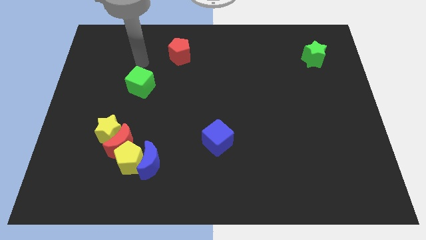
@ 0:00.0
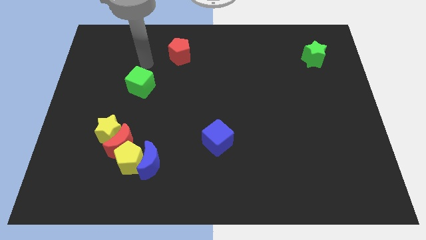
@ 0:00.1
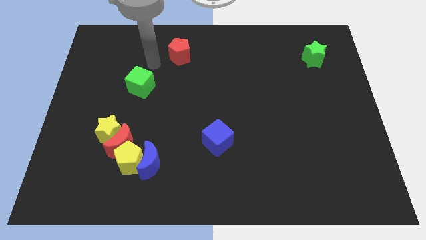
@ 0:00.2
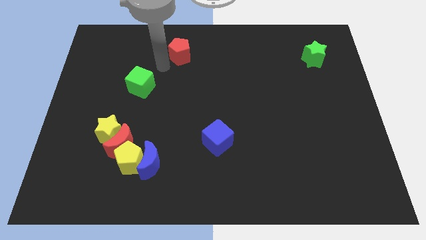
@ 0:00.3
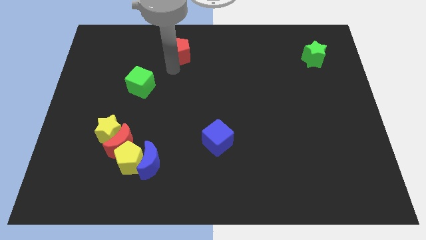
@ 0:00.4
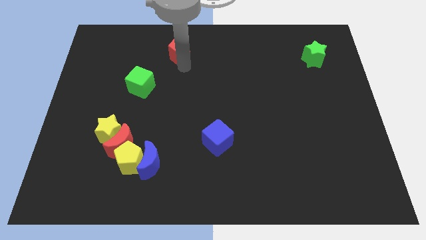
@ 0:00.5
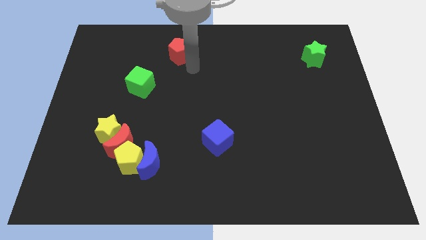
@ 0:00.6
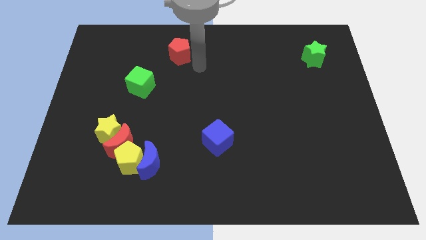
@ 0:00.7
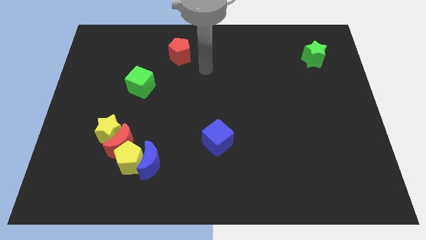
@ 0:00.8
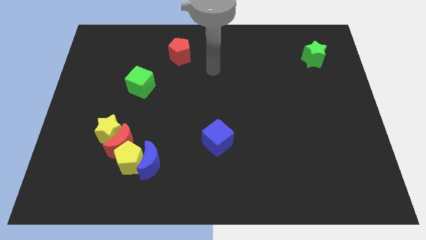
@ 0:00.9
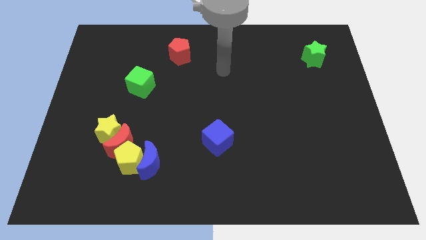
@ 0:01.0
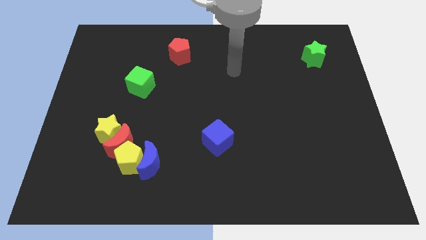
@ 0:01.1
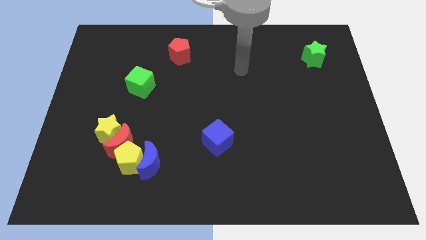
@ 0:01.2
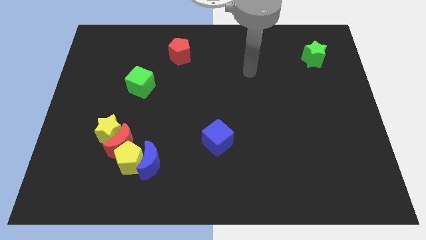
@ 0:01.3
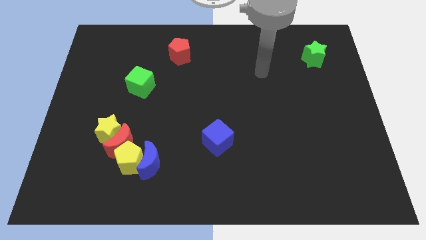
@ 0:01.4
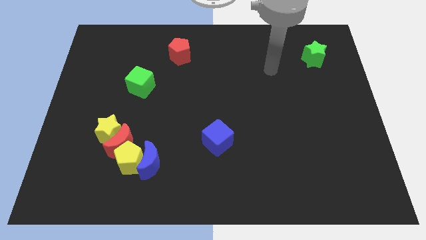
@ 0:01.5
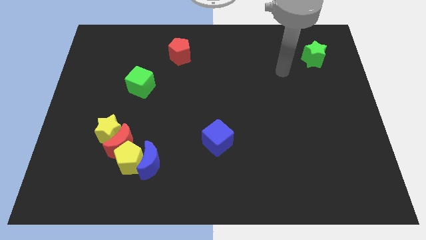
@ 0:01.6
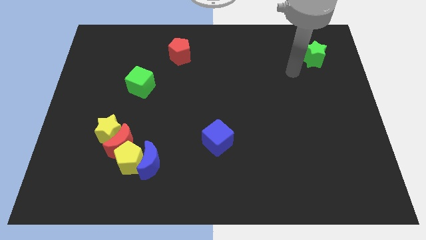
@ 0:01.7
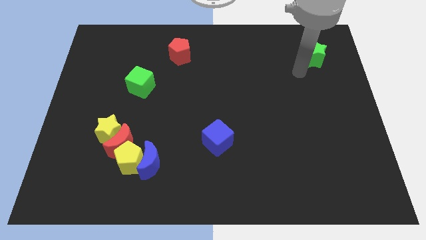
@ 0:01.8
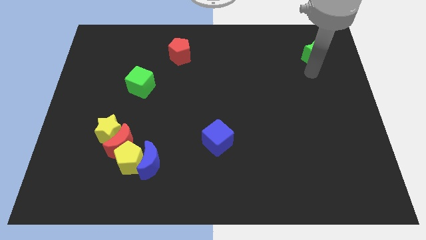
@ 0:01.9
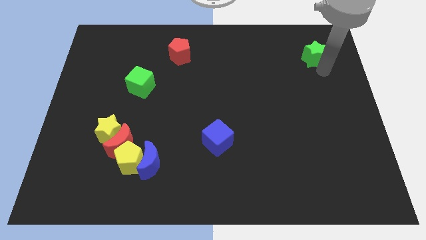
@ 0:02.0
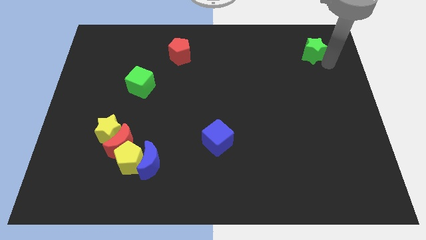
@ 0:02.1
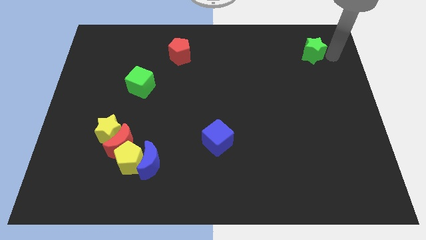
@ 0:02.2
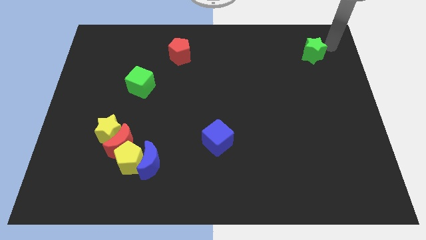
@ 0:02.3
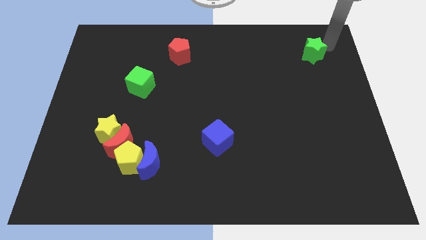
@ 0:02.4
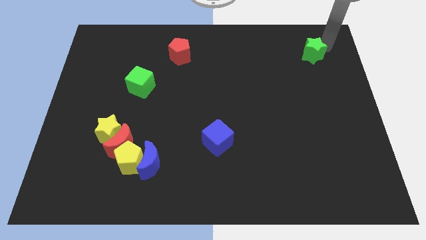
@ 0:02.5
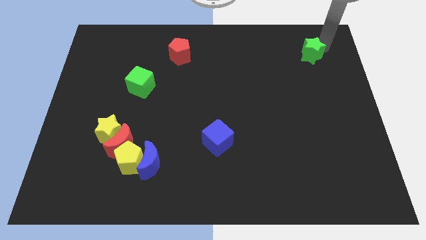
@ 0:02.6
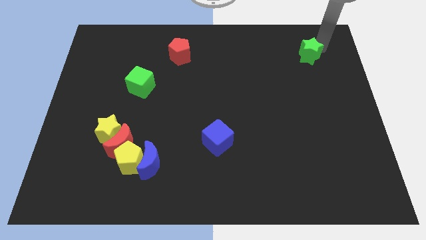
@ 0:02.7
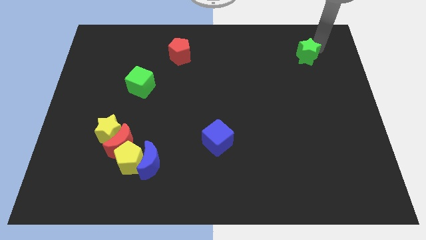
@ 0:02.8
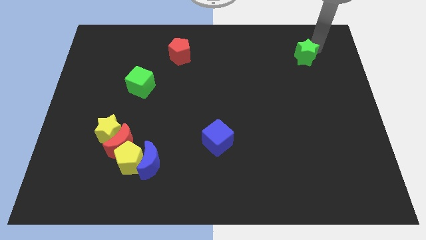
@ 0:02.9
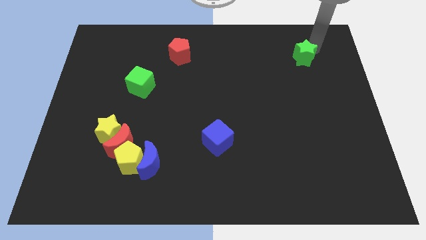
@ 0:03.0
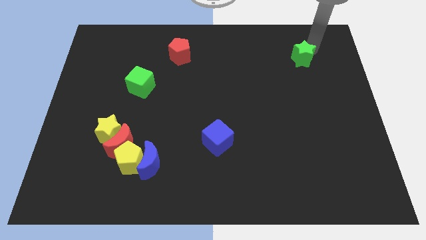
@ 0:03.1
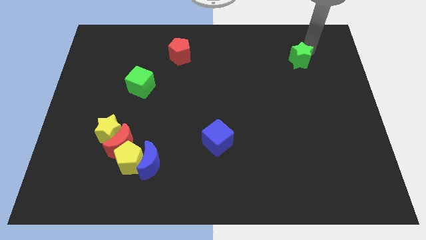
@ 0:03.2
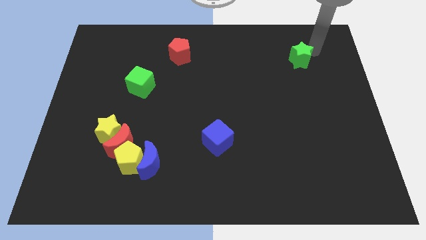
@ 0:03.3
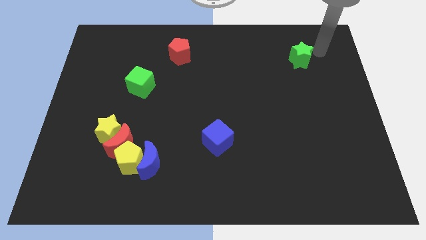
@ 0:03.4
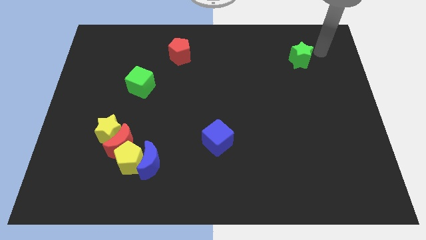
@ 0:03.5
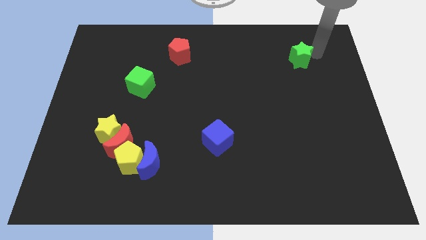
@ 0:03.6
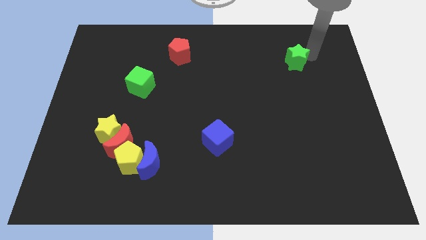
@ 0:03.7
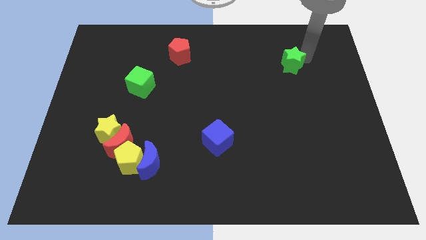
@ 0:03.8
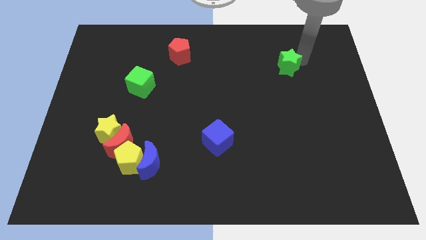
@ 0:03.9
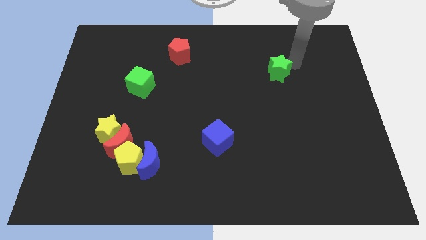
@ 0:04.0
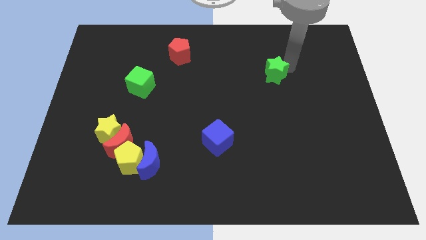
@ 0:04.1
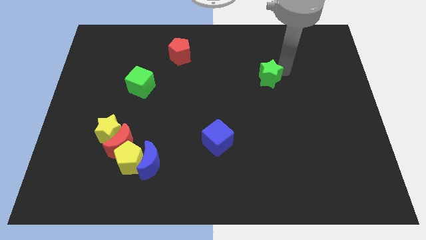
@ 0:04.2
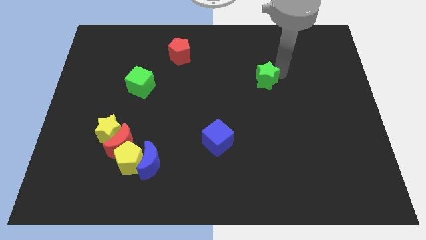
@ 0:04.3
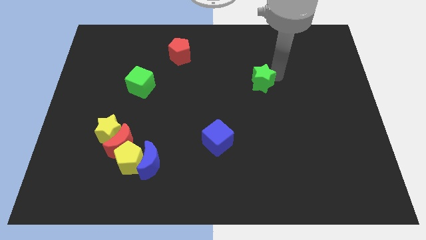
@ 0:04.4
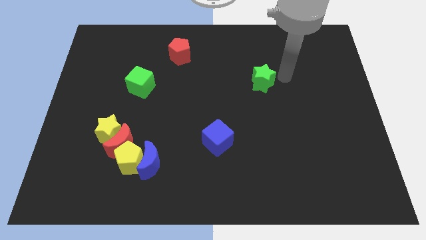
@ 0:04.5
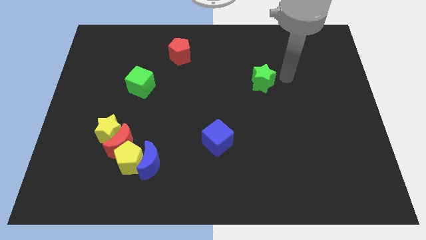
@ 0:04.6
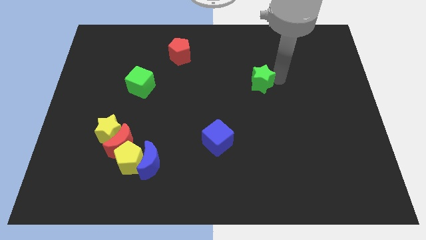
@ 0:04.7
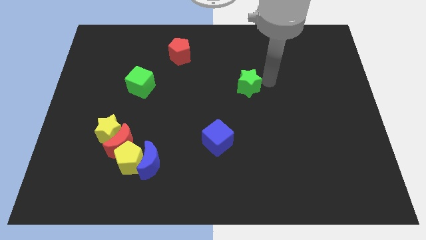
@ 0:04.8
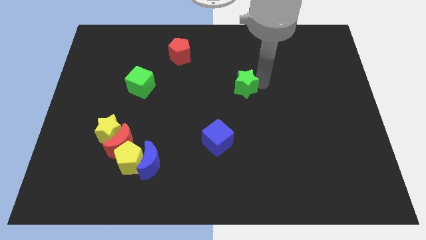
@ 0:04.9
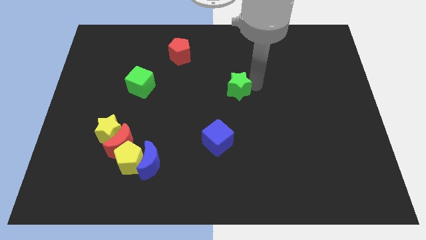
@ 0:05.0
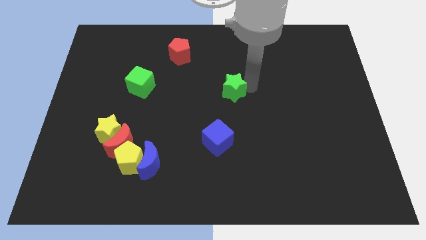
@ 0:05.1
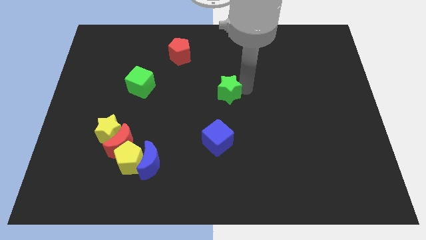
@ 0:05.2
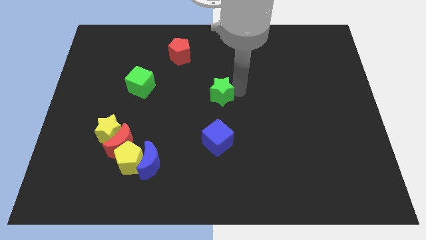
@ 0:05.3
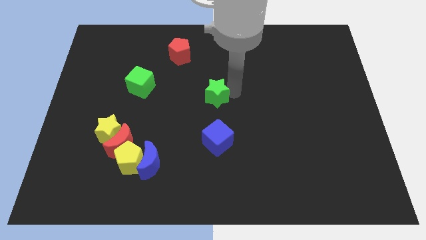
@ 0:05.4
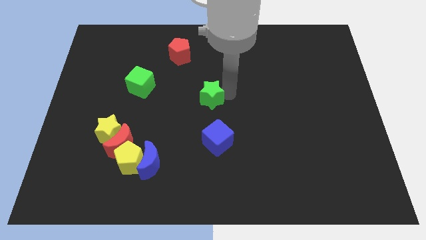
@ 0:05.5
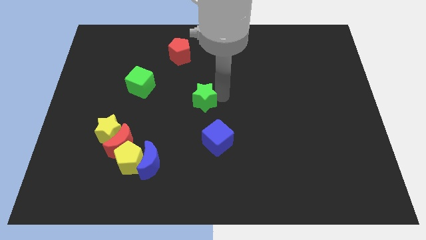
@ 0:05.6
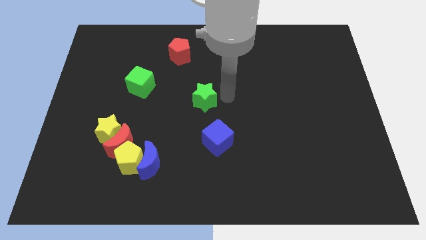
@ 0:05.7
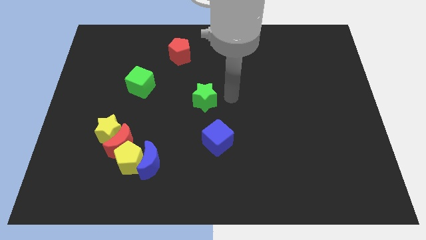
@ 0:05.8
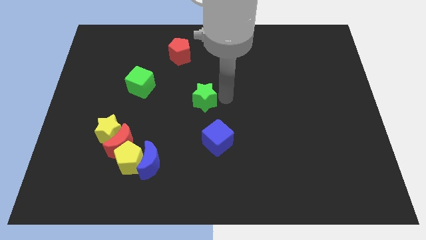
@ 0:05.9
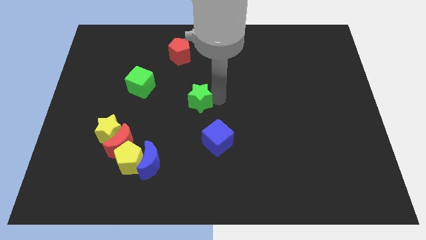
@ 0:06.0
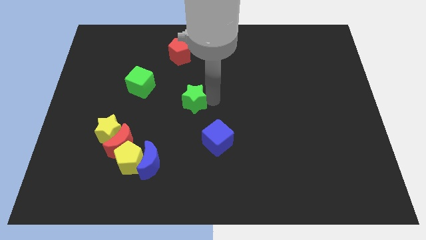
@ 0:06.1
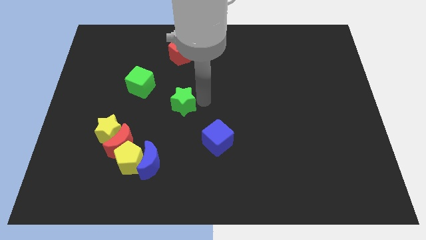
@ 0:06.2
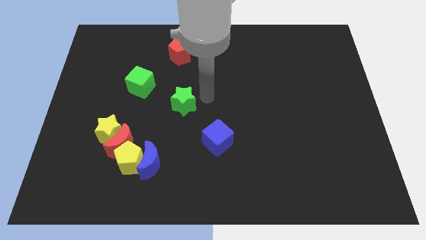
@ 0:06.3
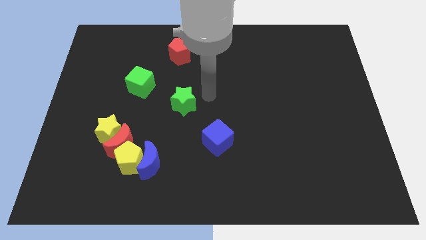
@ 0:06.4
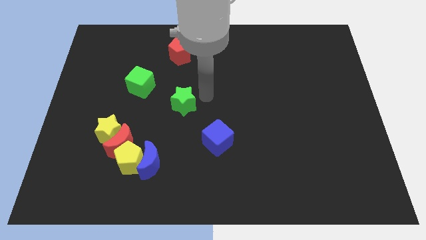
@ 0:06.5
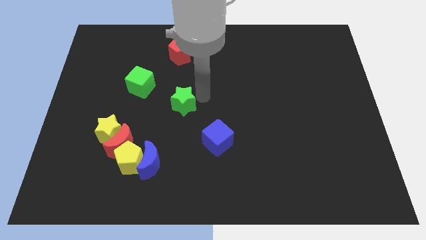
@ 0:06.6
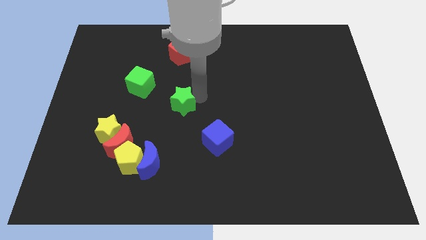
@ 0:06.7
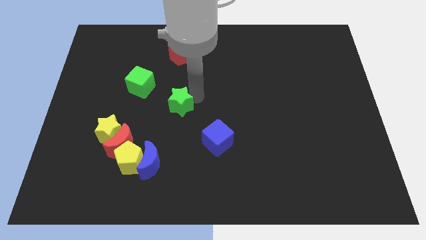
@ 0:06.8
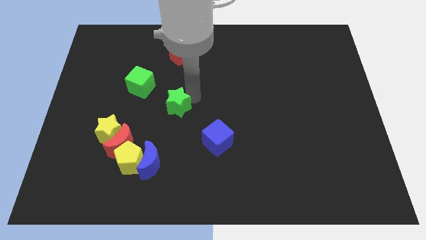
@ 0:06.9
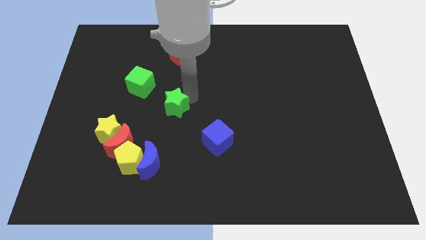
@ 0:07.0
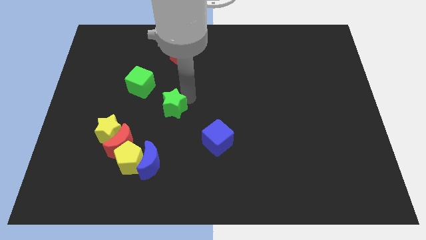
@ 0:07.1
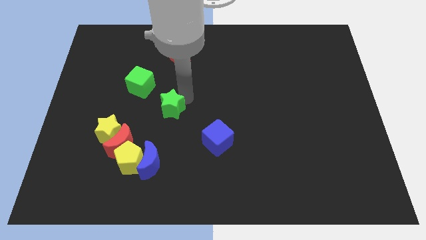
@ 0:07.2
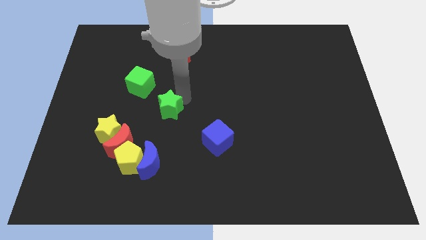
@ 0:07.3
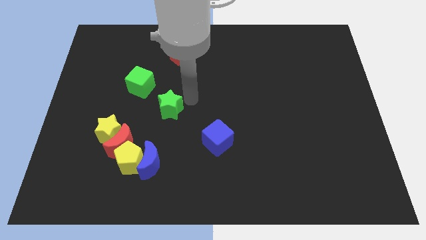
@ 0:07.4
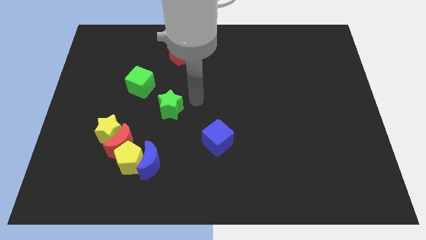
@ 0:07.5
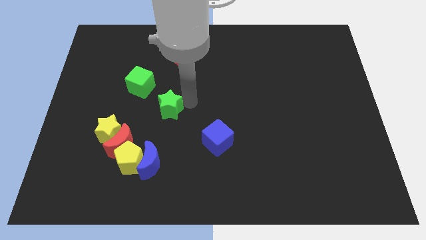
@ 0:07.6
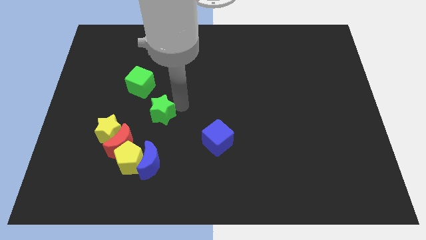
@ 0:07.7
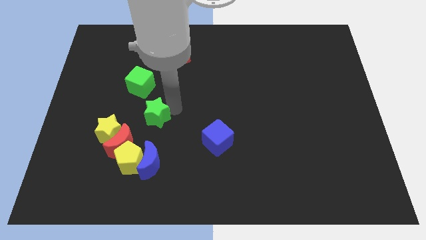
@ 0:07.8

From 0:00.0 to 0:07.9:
put the green star to the top of the yellow pentagon
